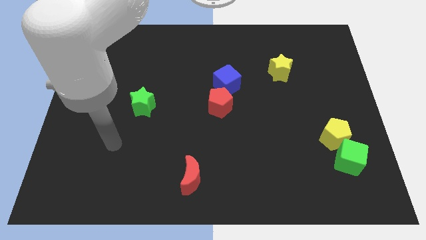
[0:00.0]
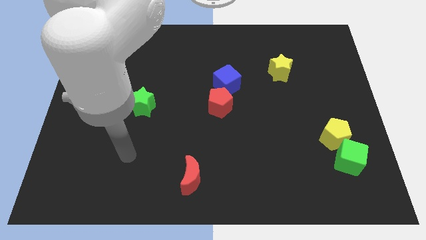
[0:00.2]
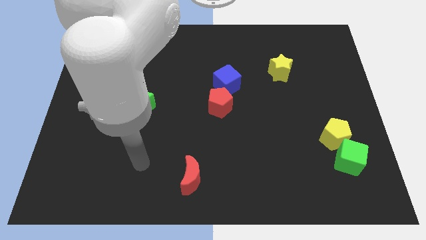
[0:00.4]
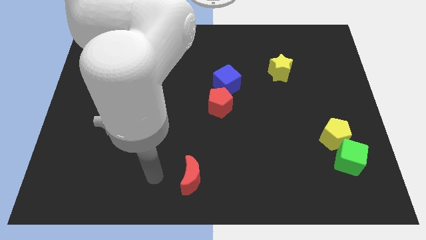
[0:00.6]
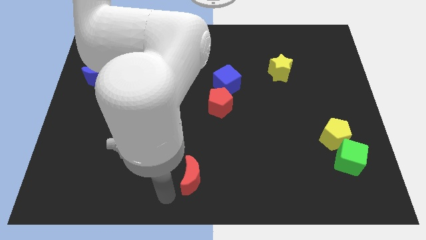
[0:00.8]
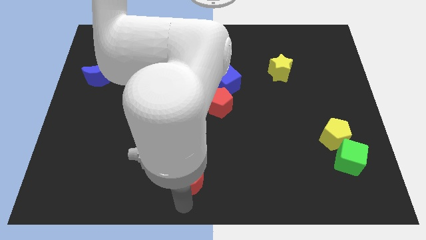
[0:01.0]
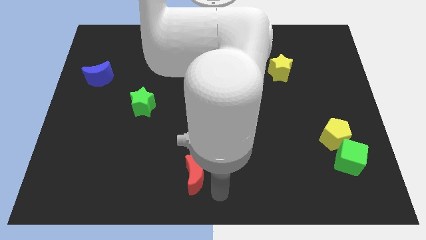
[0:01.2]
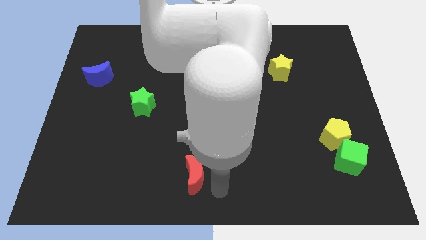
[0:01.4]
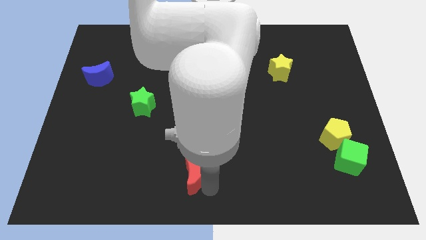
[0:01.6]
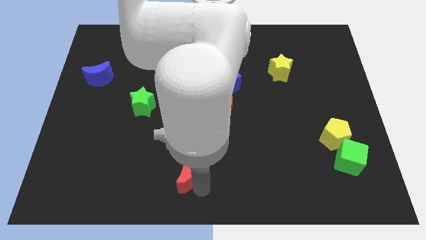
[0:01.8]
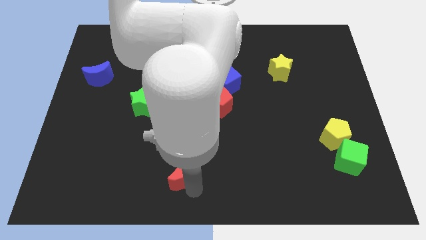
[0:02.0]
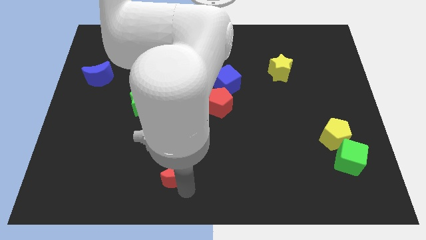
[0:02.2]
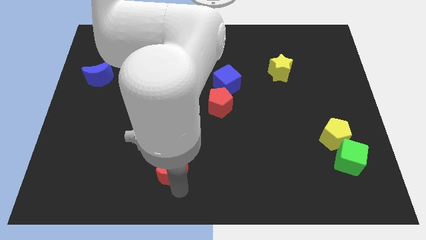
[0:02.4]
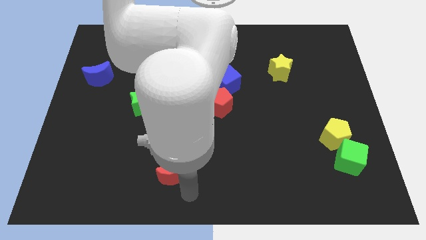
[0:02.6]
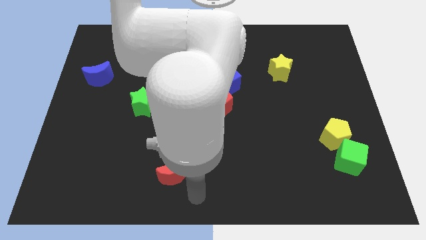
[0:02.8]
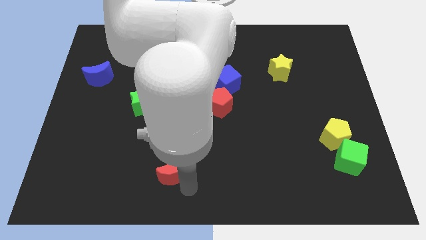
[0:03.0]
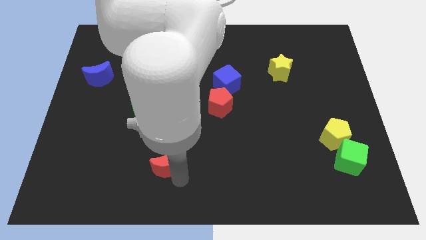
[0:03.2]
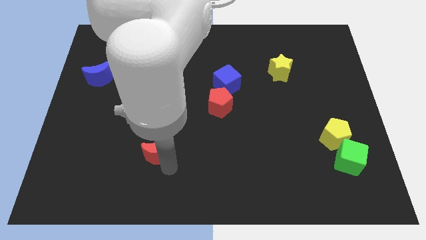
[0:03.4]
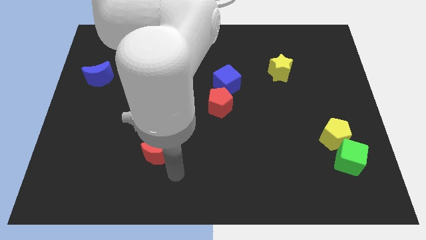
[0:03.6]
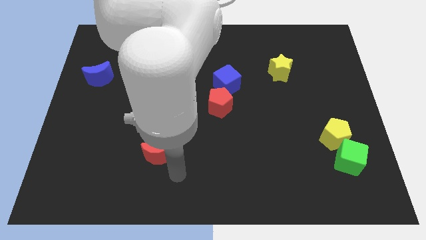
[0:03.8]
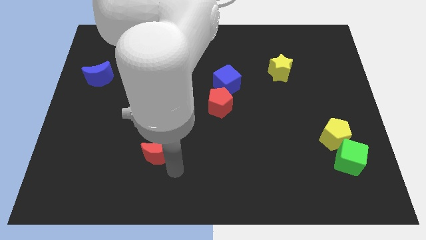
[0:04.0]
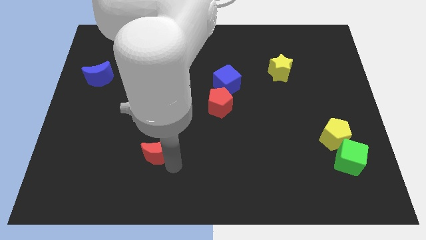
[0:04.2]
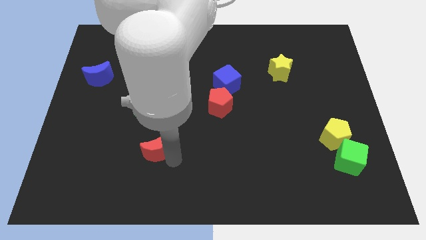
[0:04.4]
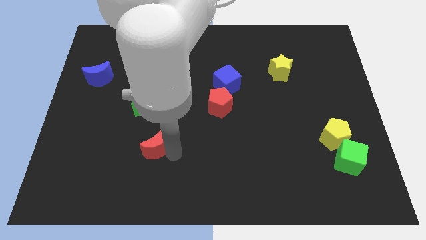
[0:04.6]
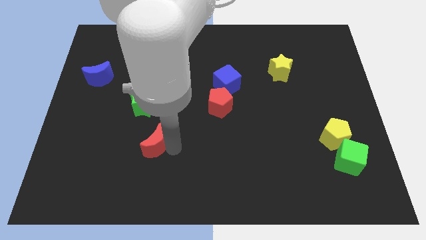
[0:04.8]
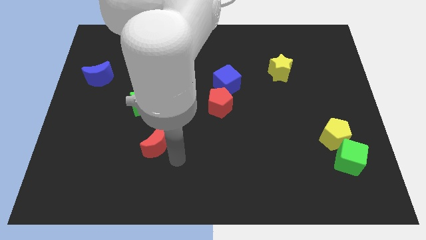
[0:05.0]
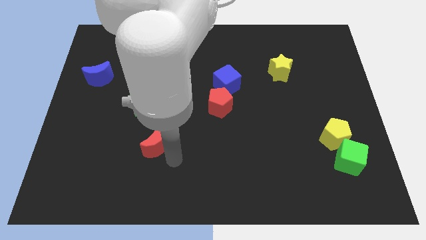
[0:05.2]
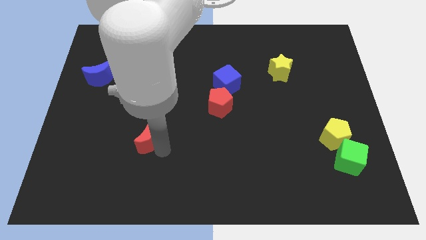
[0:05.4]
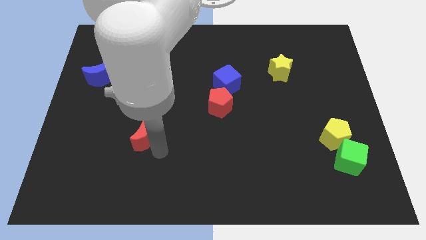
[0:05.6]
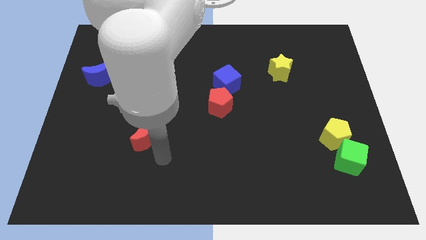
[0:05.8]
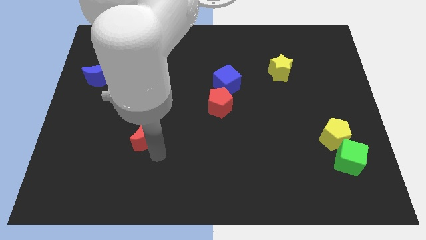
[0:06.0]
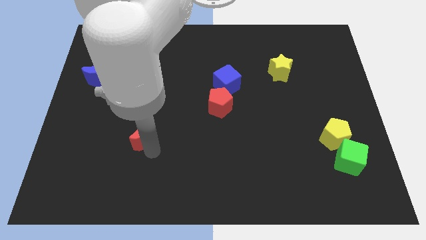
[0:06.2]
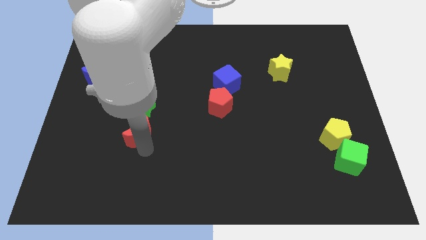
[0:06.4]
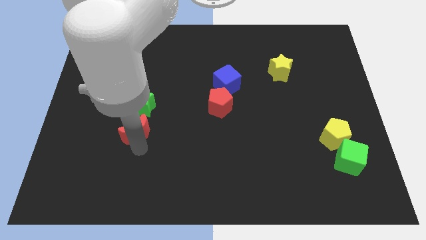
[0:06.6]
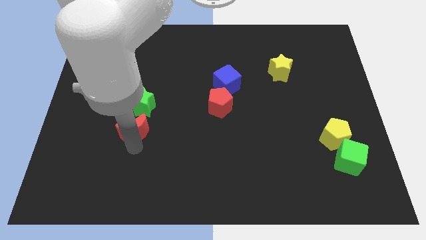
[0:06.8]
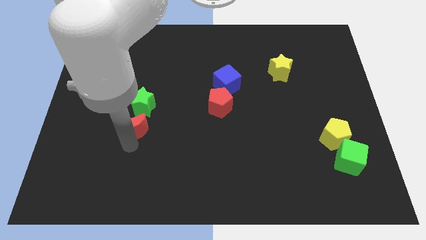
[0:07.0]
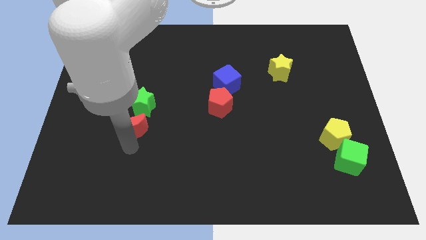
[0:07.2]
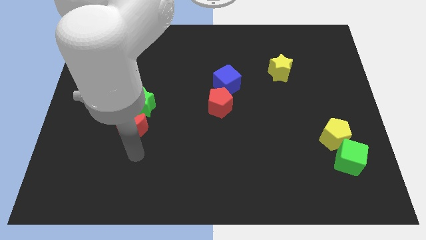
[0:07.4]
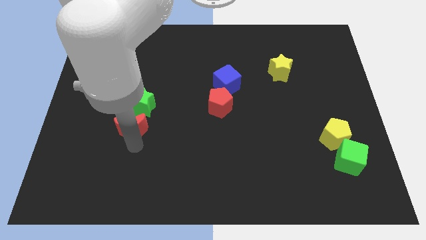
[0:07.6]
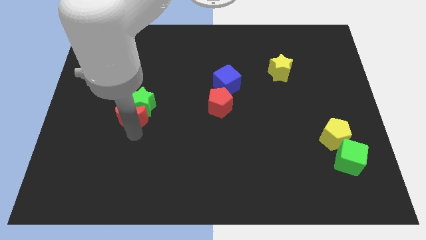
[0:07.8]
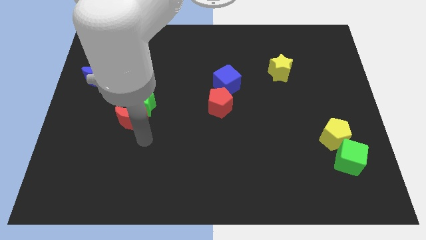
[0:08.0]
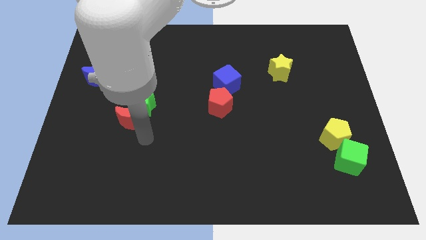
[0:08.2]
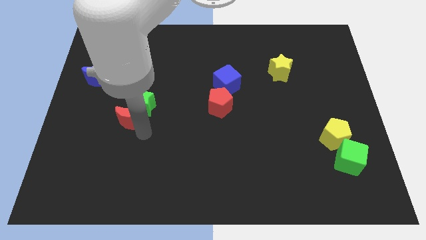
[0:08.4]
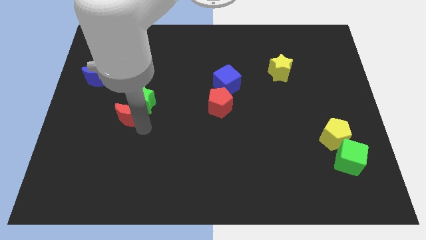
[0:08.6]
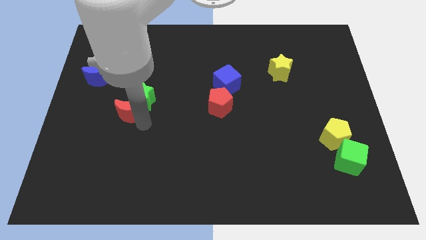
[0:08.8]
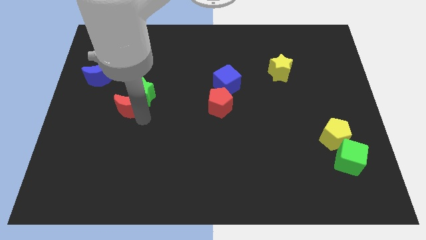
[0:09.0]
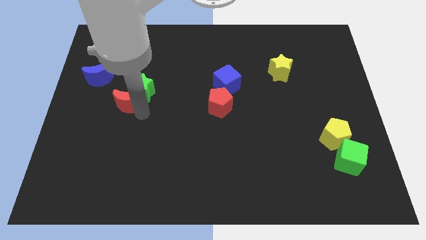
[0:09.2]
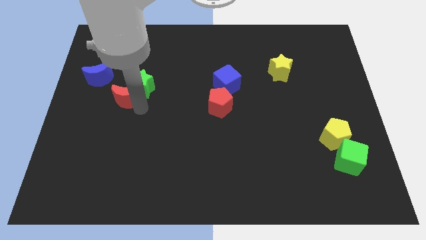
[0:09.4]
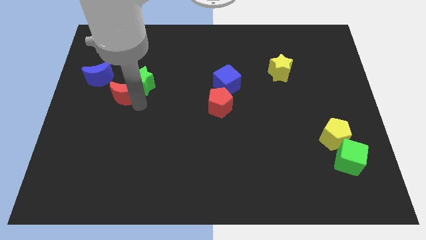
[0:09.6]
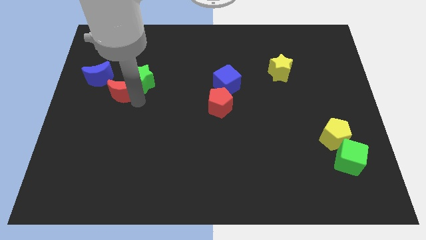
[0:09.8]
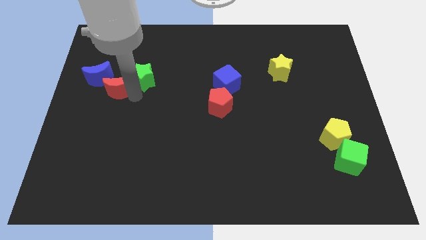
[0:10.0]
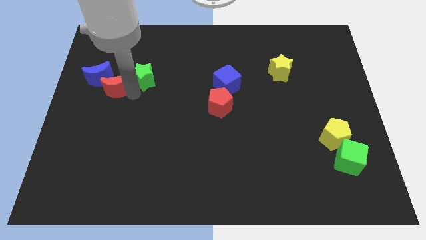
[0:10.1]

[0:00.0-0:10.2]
move the red moon towards the blue moon

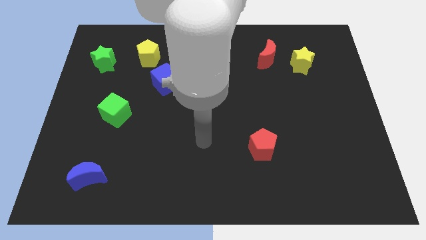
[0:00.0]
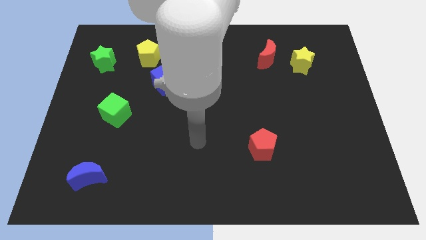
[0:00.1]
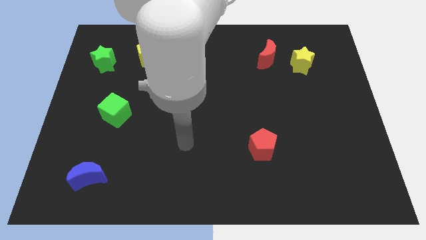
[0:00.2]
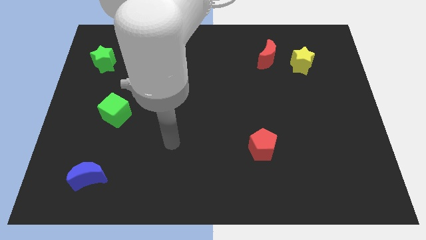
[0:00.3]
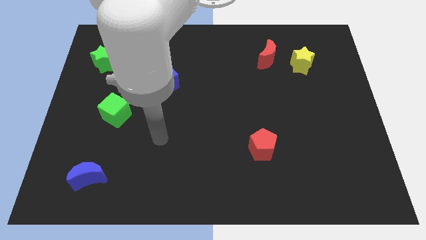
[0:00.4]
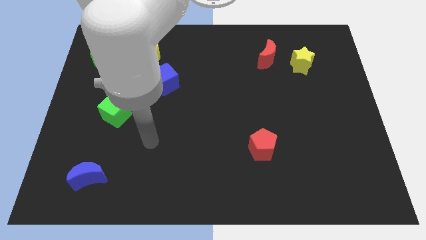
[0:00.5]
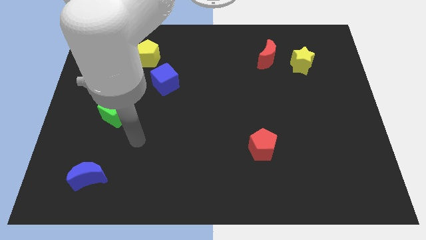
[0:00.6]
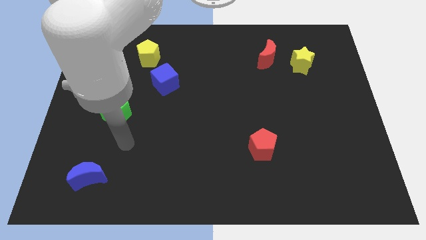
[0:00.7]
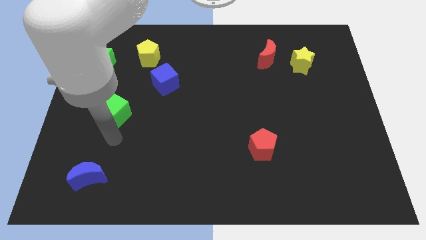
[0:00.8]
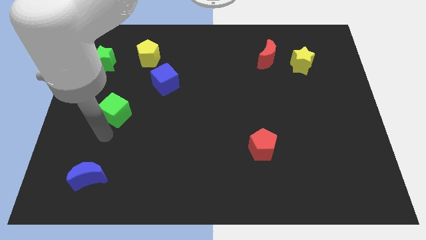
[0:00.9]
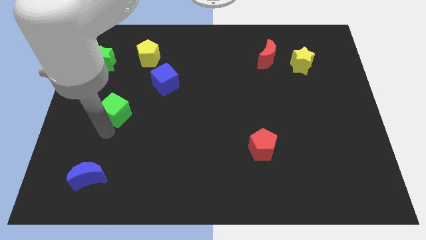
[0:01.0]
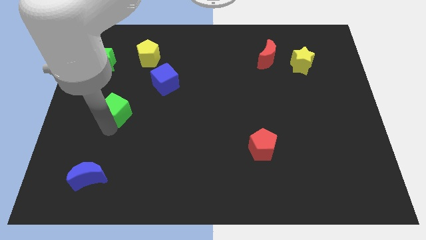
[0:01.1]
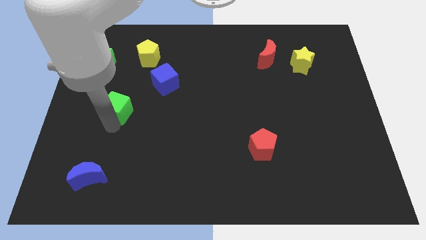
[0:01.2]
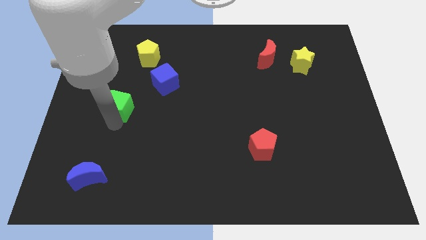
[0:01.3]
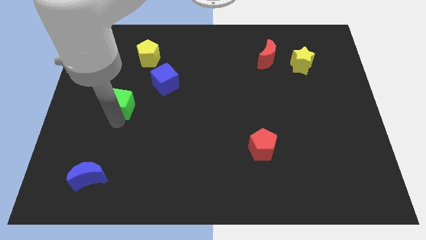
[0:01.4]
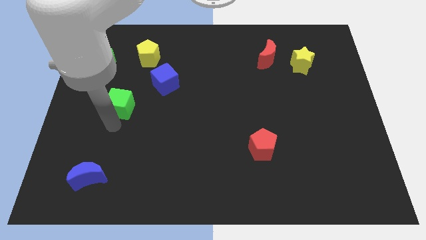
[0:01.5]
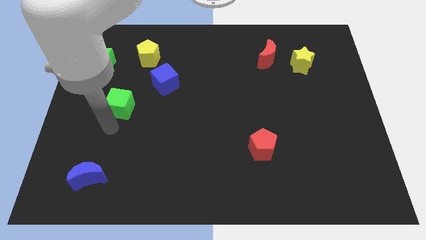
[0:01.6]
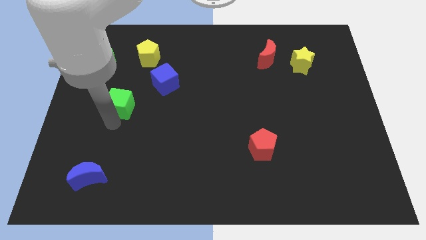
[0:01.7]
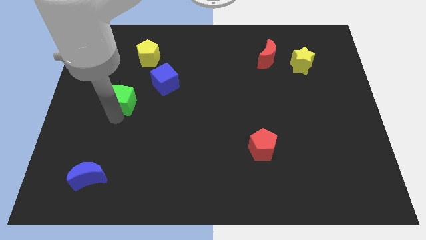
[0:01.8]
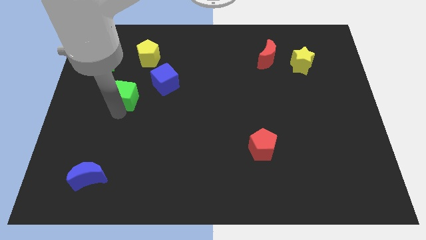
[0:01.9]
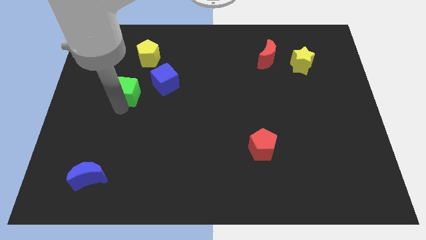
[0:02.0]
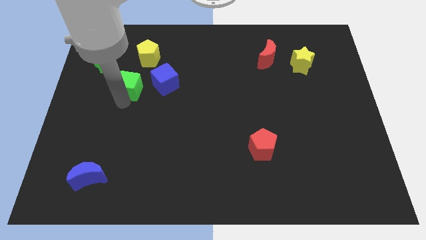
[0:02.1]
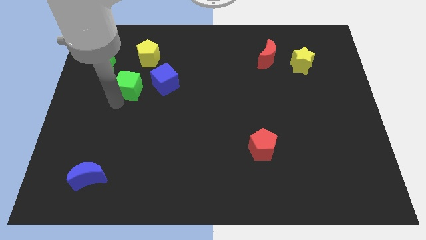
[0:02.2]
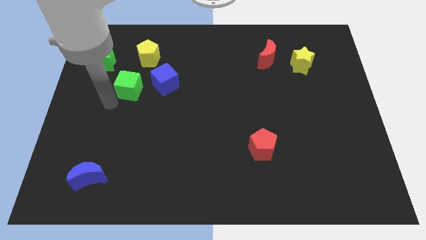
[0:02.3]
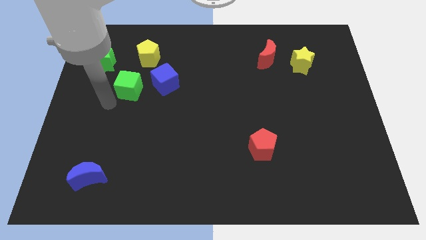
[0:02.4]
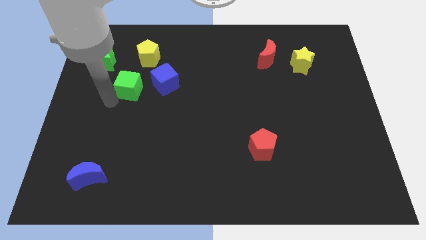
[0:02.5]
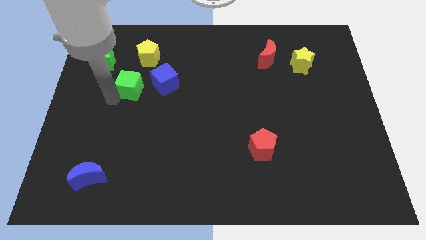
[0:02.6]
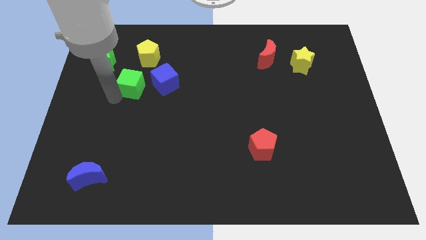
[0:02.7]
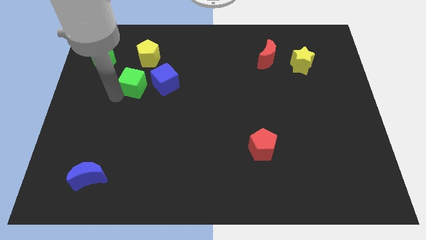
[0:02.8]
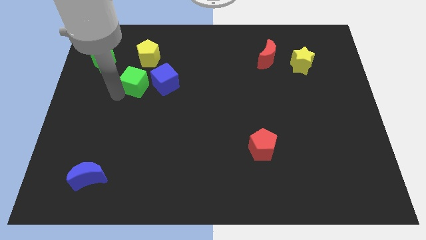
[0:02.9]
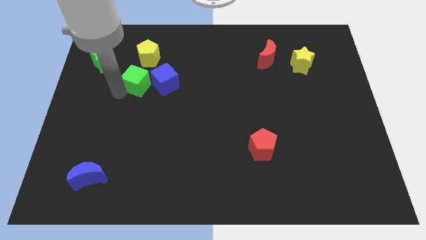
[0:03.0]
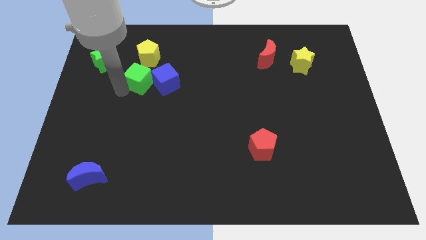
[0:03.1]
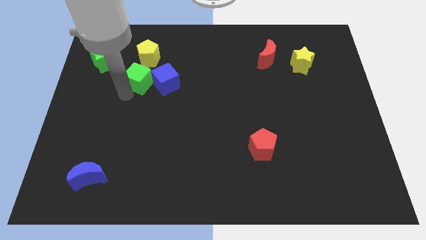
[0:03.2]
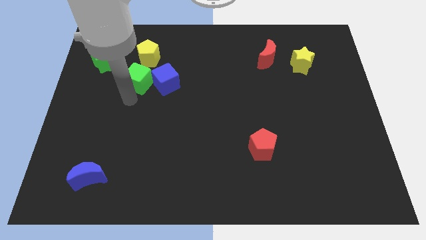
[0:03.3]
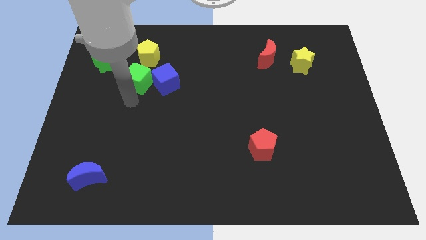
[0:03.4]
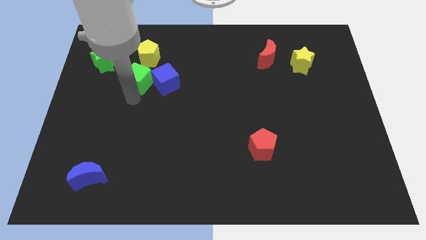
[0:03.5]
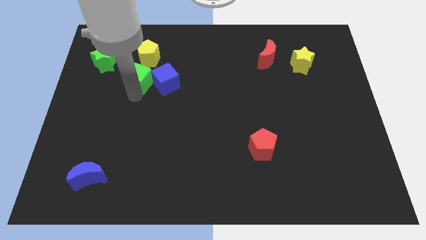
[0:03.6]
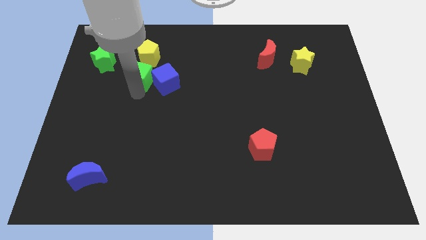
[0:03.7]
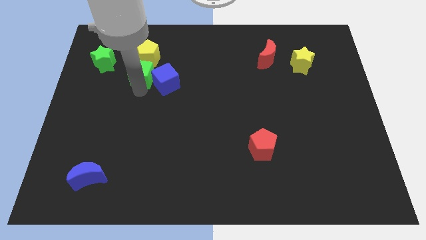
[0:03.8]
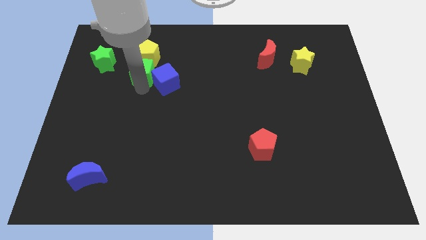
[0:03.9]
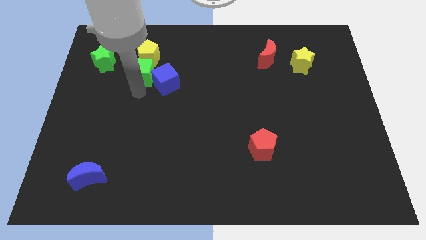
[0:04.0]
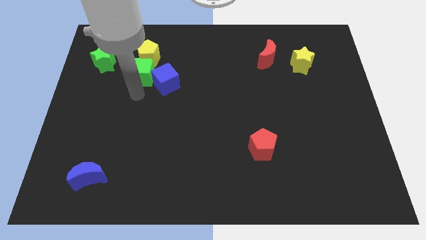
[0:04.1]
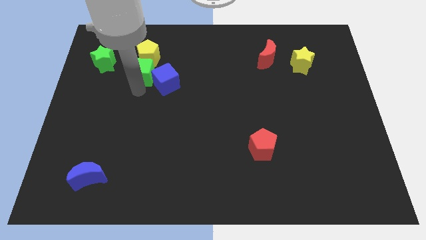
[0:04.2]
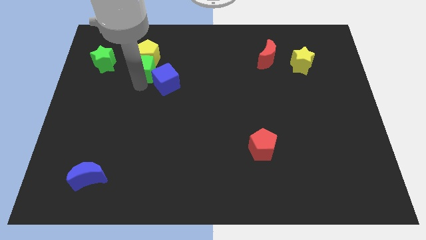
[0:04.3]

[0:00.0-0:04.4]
move the green cube next to the yellow pentagon
